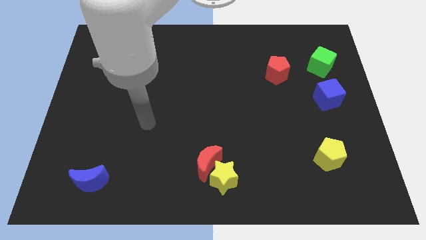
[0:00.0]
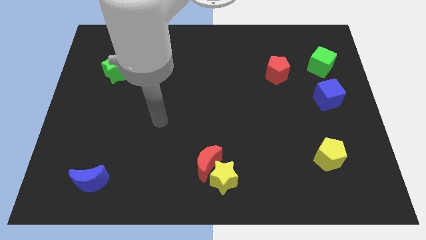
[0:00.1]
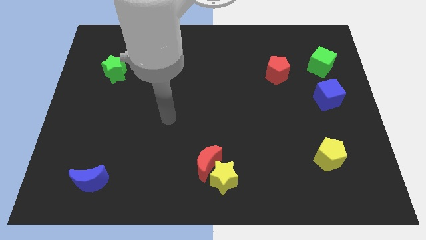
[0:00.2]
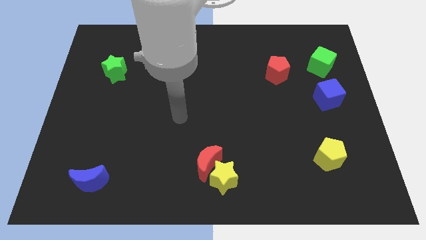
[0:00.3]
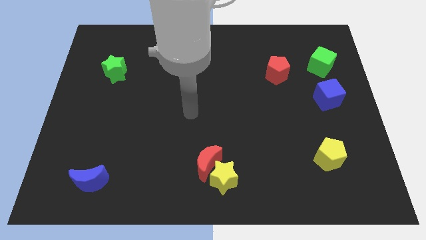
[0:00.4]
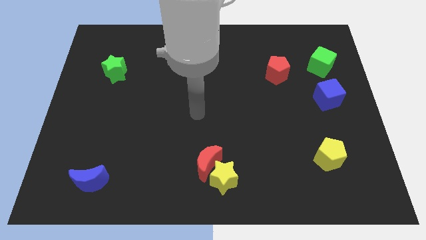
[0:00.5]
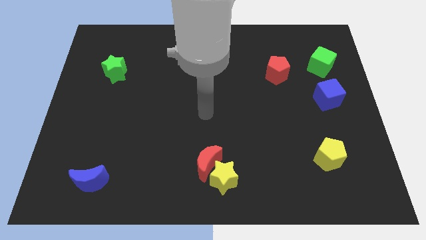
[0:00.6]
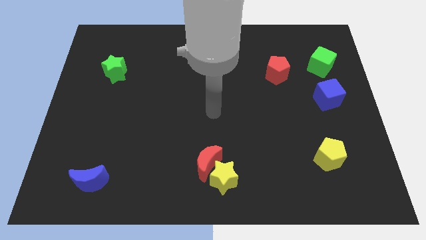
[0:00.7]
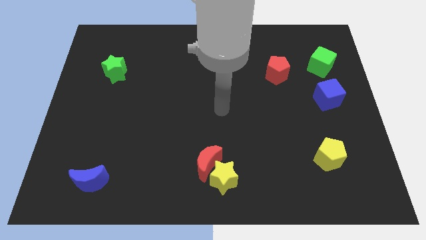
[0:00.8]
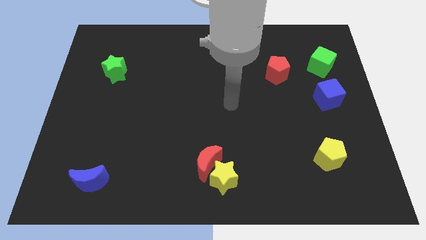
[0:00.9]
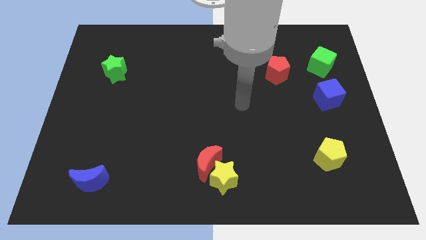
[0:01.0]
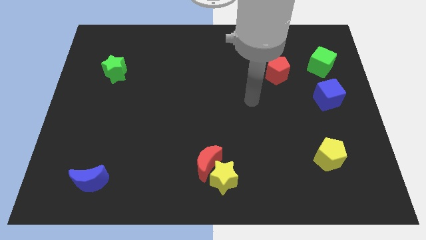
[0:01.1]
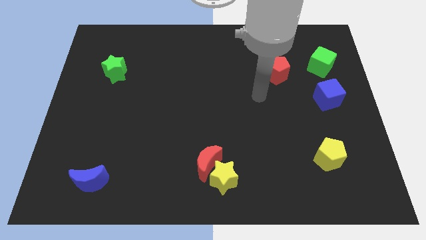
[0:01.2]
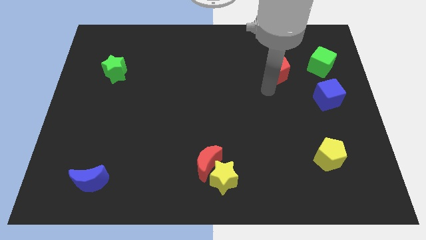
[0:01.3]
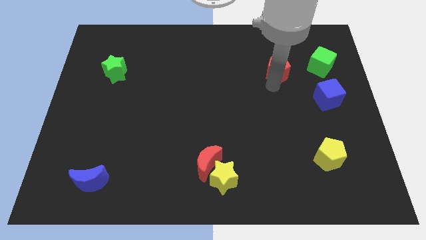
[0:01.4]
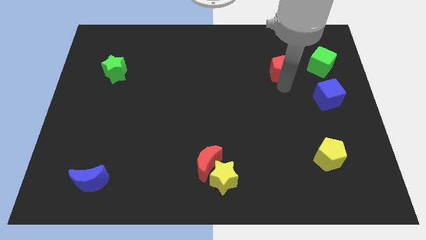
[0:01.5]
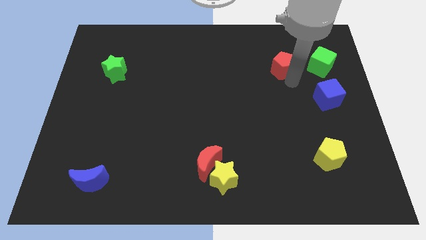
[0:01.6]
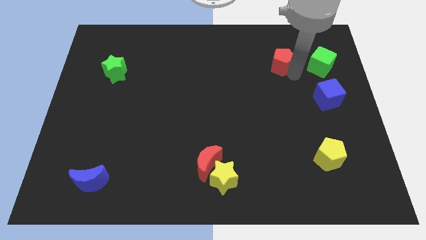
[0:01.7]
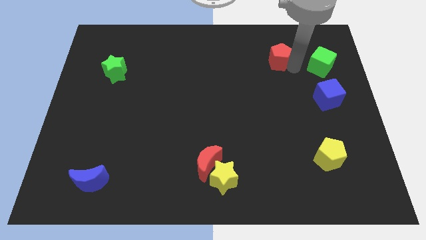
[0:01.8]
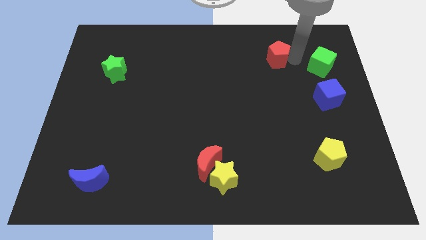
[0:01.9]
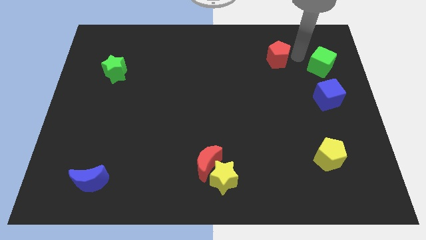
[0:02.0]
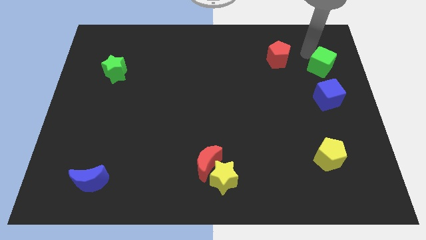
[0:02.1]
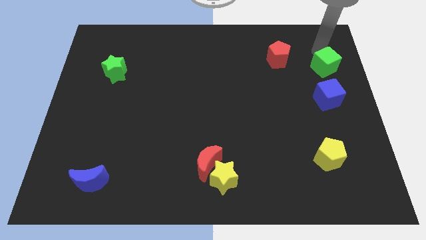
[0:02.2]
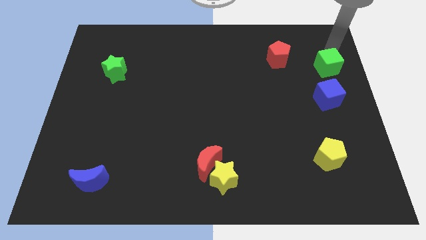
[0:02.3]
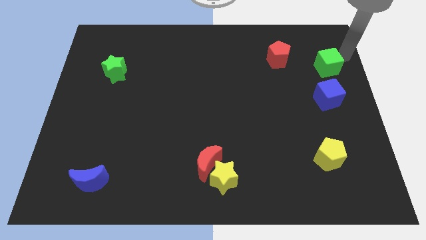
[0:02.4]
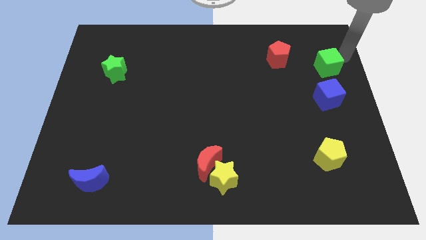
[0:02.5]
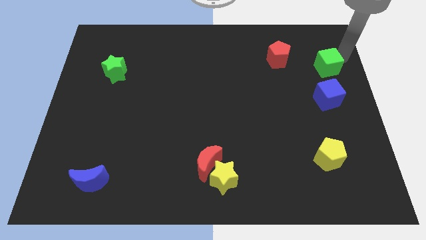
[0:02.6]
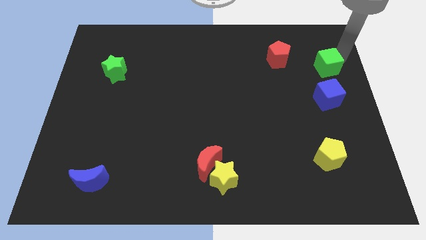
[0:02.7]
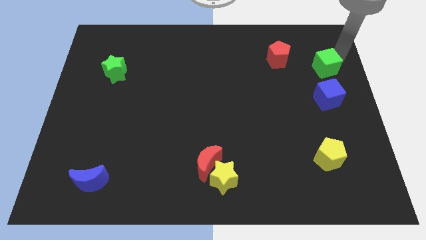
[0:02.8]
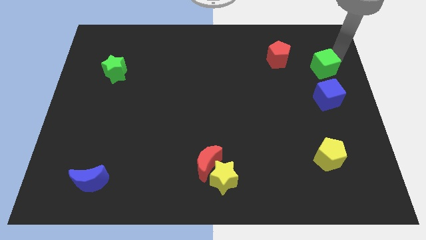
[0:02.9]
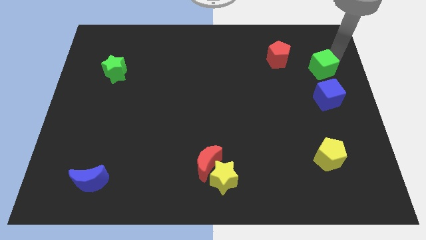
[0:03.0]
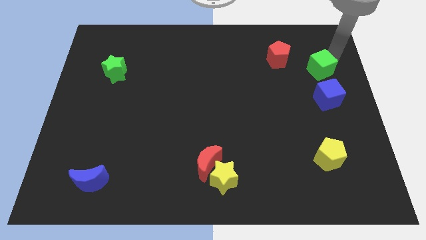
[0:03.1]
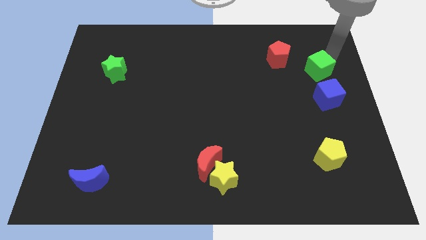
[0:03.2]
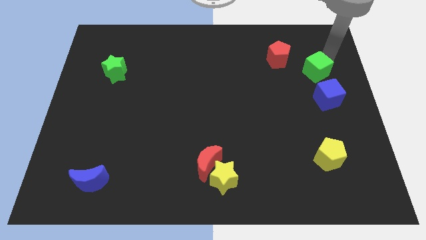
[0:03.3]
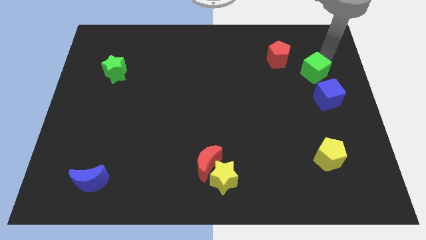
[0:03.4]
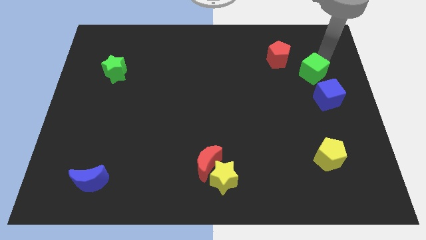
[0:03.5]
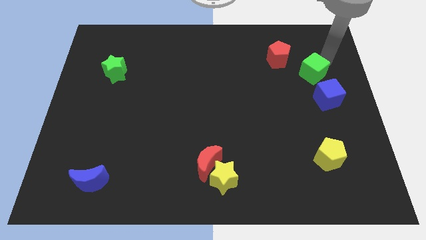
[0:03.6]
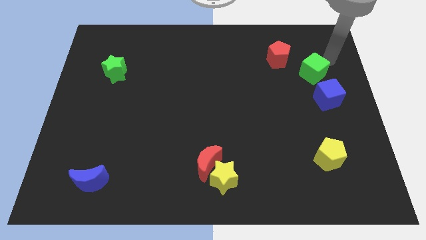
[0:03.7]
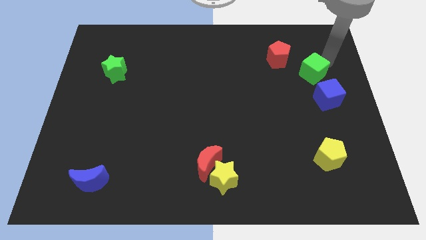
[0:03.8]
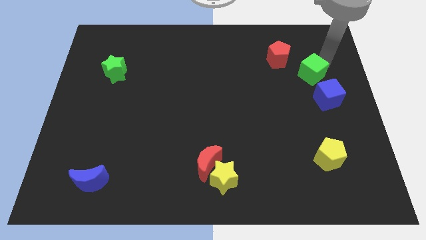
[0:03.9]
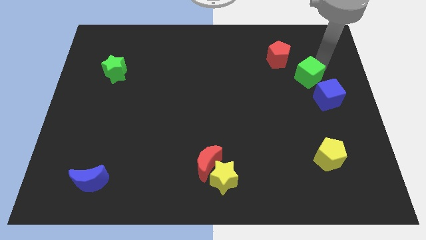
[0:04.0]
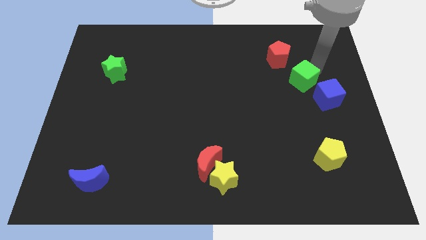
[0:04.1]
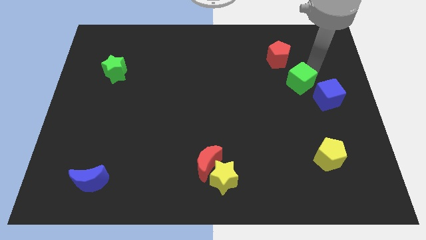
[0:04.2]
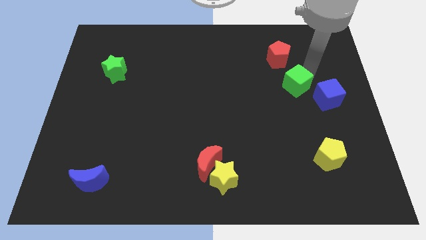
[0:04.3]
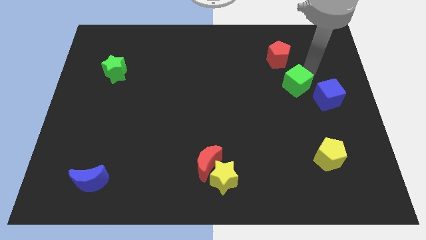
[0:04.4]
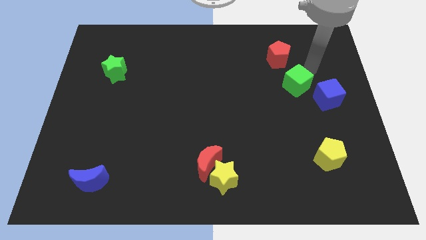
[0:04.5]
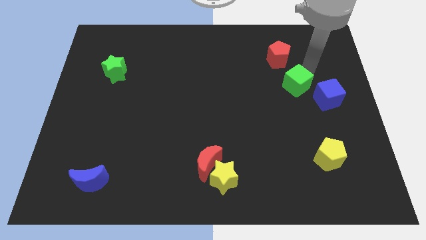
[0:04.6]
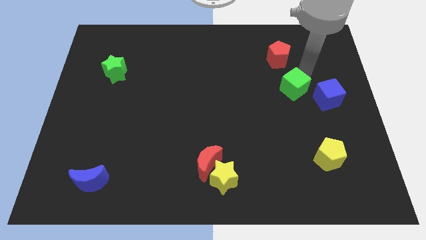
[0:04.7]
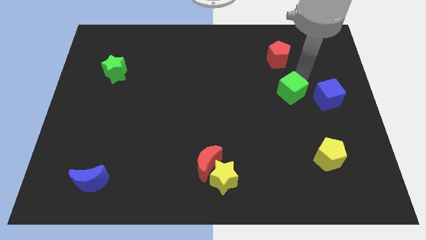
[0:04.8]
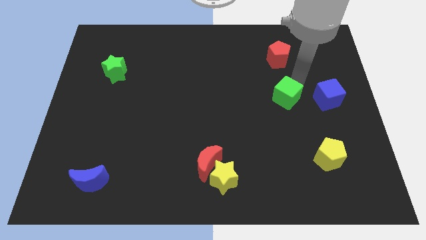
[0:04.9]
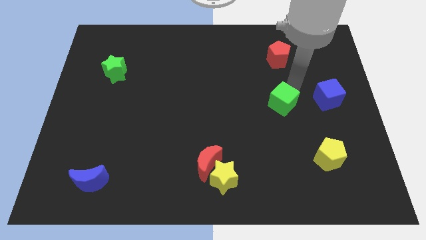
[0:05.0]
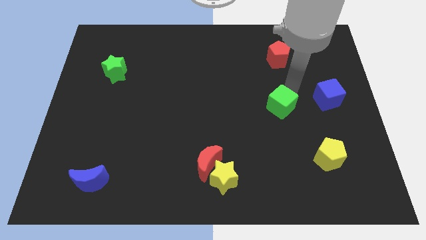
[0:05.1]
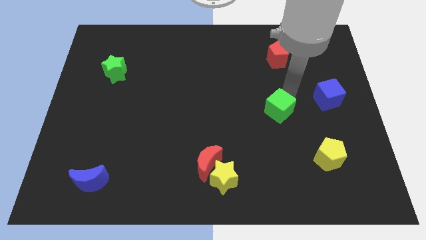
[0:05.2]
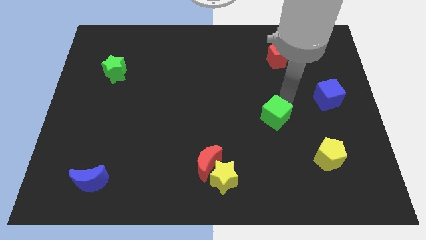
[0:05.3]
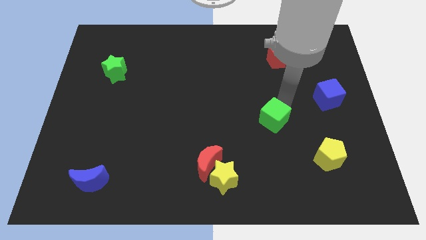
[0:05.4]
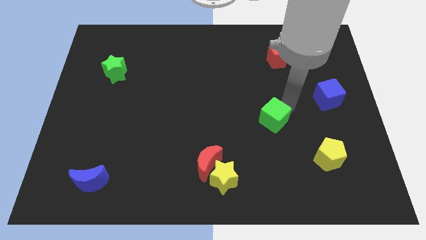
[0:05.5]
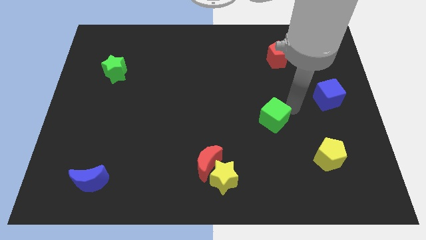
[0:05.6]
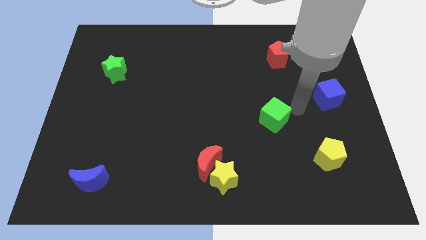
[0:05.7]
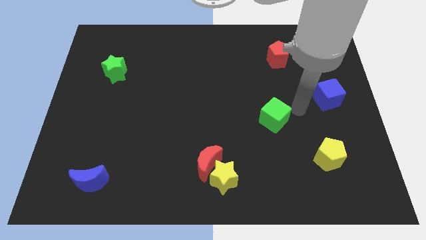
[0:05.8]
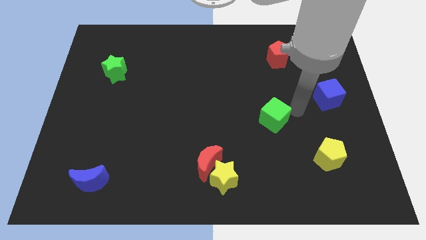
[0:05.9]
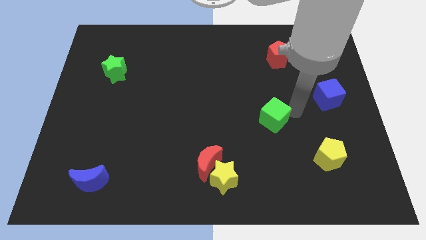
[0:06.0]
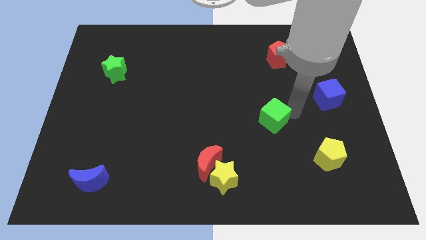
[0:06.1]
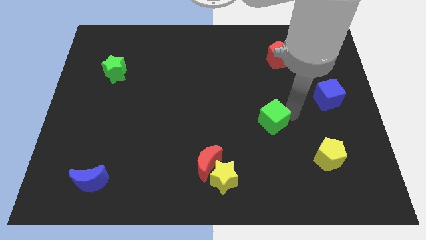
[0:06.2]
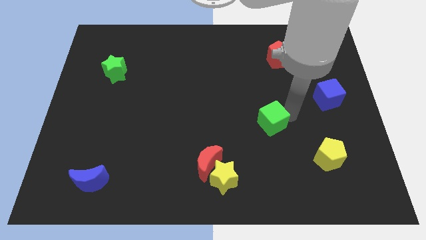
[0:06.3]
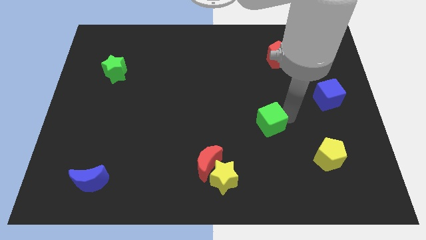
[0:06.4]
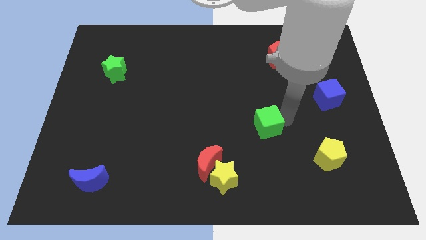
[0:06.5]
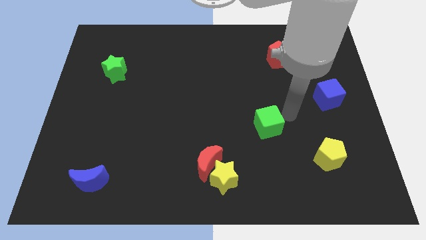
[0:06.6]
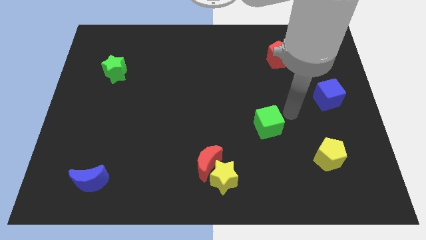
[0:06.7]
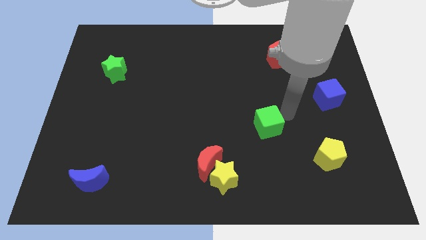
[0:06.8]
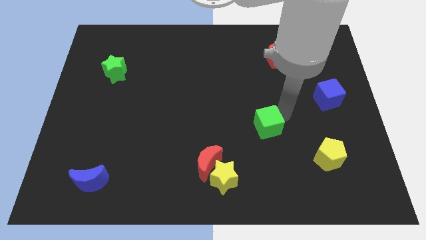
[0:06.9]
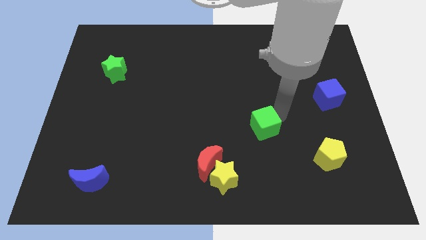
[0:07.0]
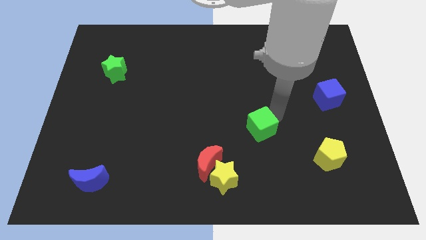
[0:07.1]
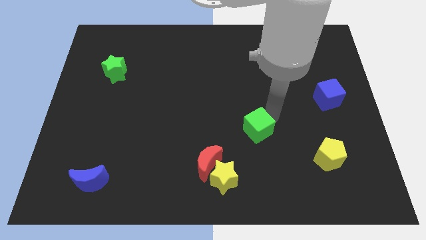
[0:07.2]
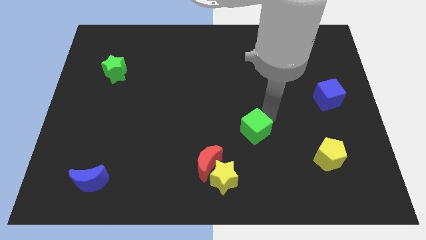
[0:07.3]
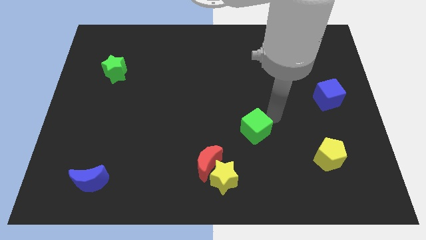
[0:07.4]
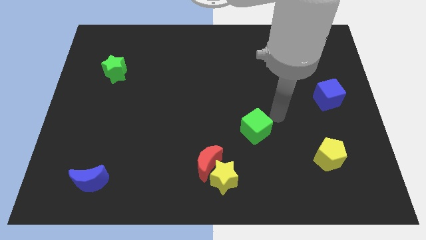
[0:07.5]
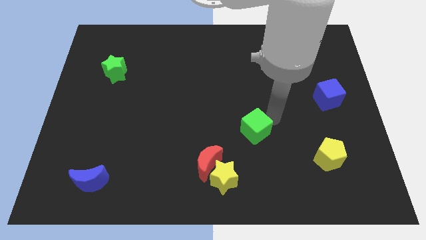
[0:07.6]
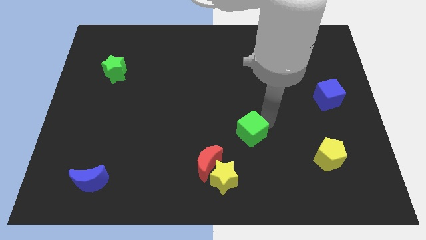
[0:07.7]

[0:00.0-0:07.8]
slide the green cube to the top right side of the red moon
